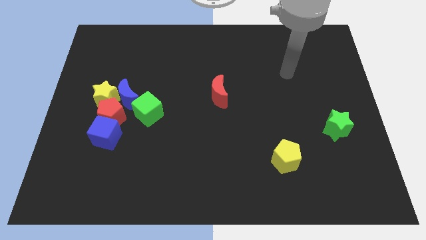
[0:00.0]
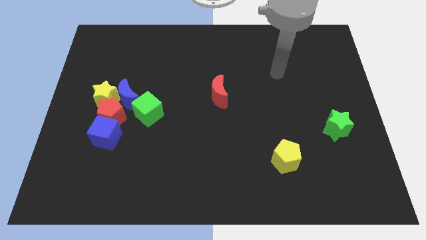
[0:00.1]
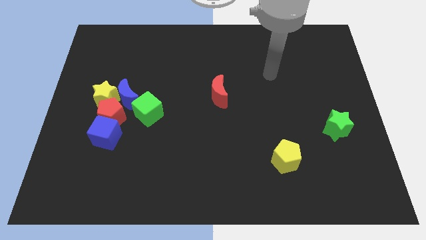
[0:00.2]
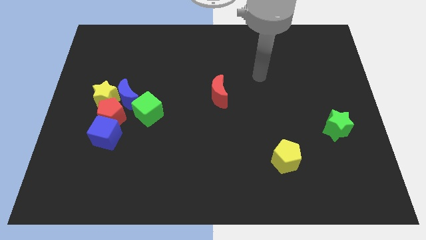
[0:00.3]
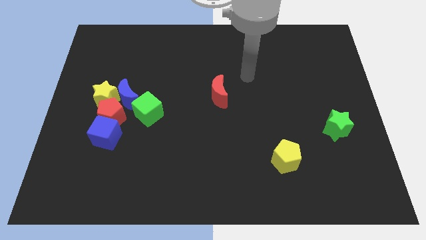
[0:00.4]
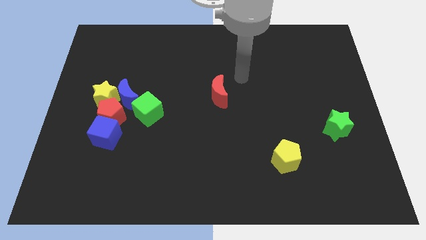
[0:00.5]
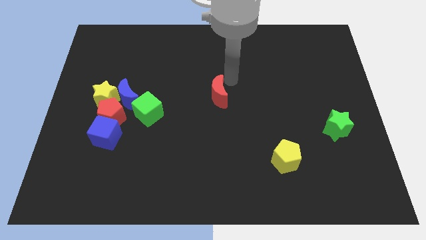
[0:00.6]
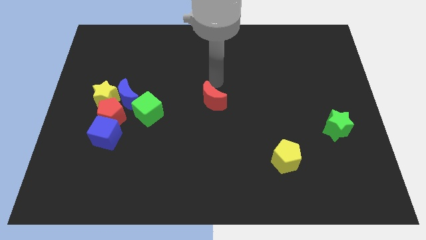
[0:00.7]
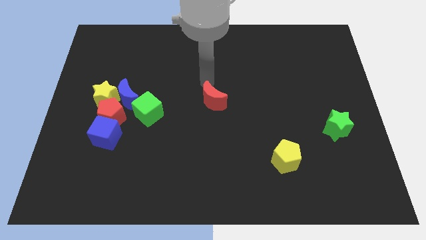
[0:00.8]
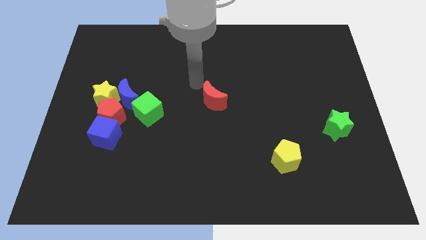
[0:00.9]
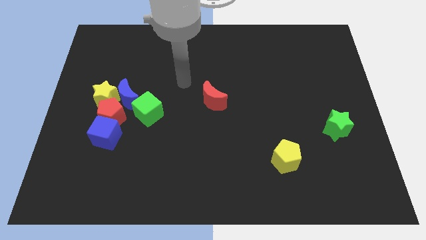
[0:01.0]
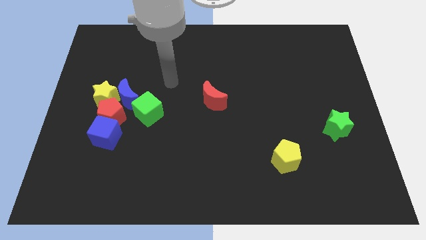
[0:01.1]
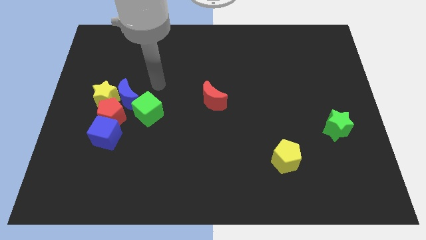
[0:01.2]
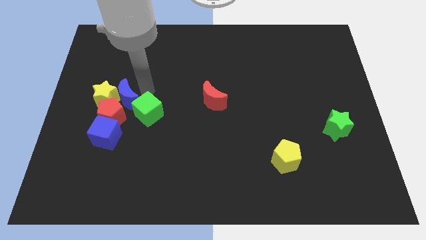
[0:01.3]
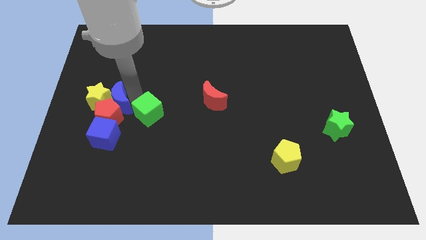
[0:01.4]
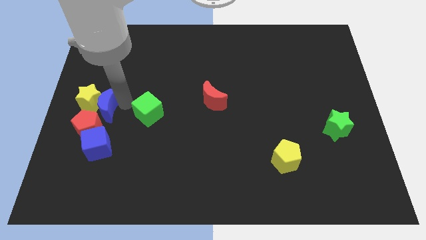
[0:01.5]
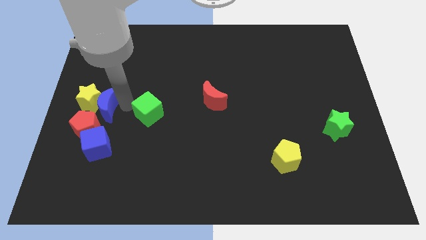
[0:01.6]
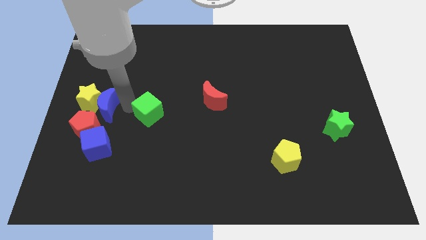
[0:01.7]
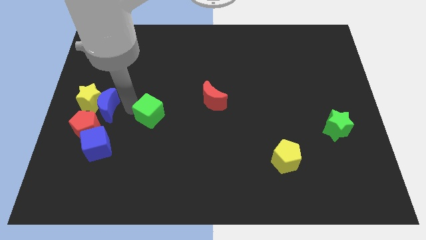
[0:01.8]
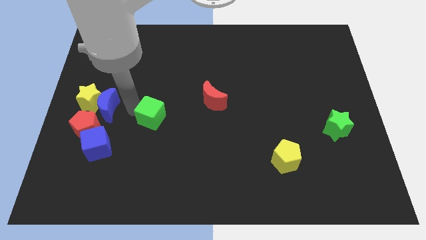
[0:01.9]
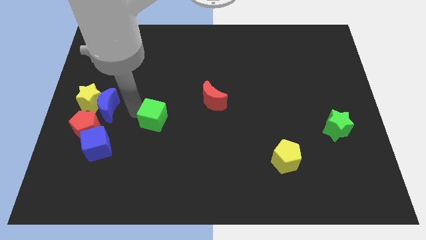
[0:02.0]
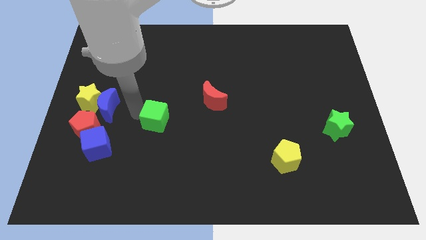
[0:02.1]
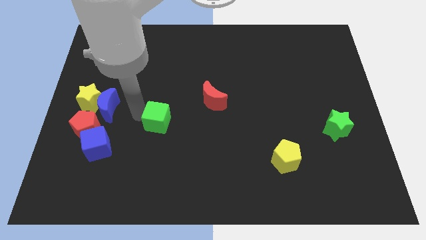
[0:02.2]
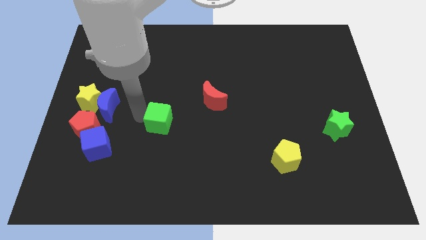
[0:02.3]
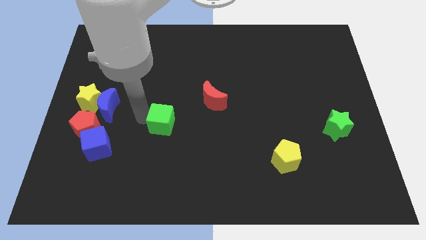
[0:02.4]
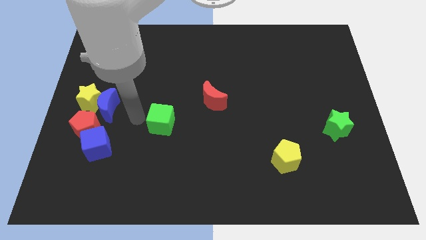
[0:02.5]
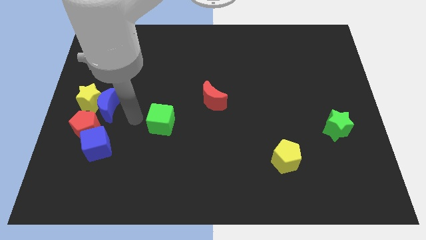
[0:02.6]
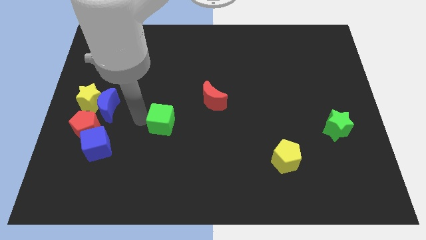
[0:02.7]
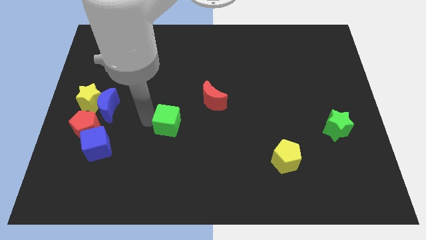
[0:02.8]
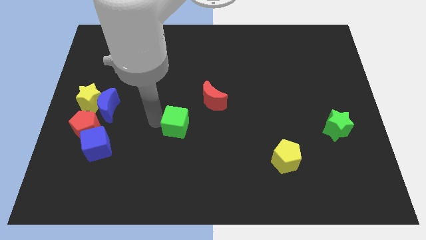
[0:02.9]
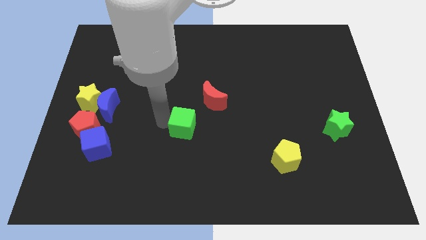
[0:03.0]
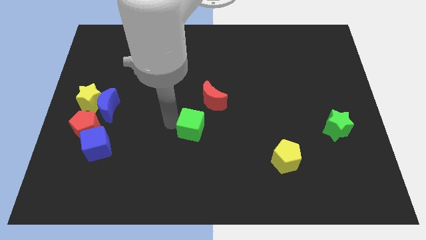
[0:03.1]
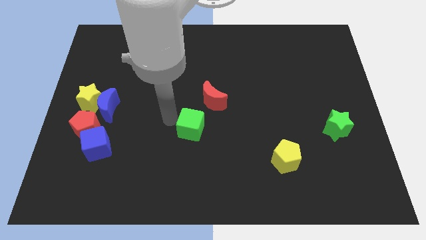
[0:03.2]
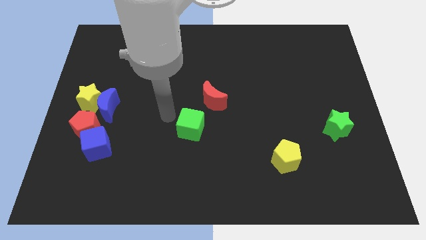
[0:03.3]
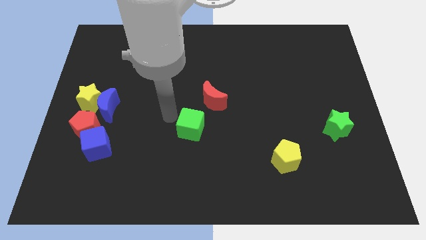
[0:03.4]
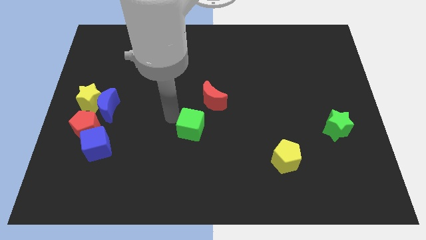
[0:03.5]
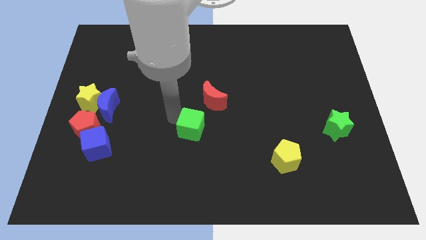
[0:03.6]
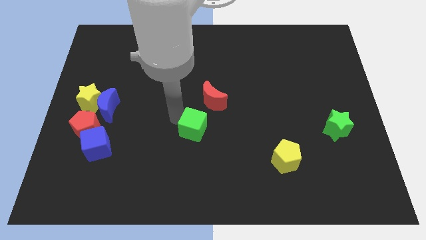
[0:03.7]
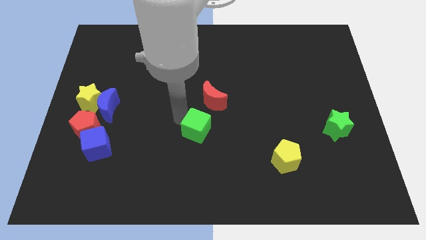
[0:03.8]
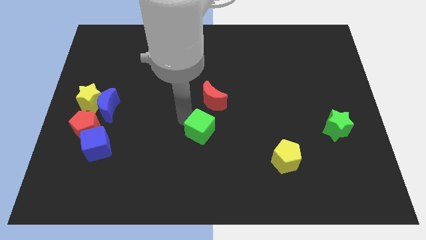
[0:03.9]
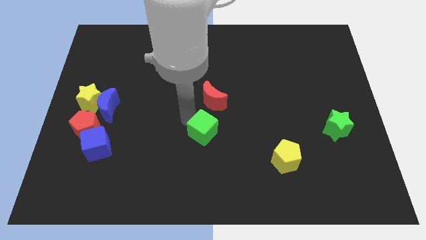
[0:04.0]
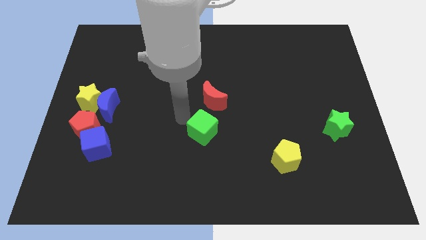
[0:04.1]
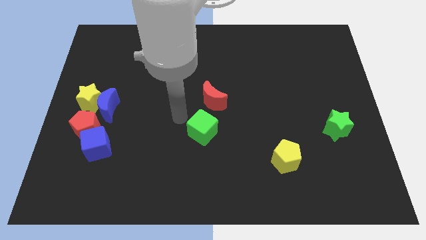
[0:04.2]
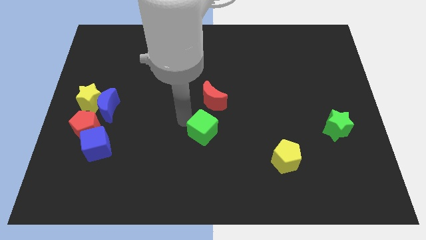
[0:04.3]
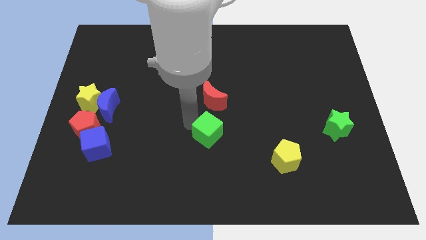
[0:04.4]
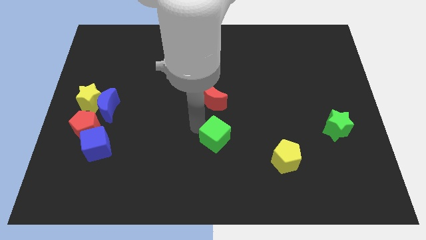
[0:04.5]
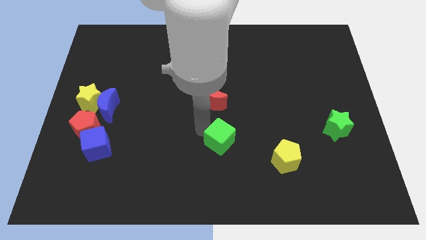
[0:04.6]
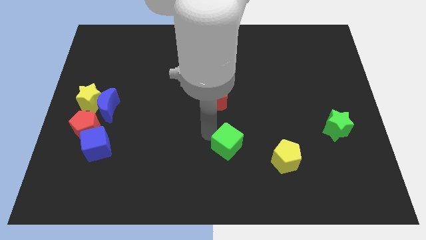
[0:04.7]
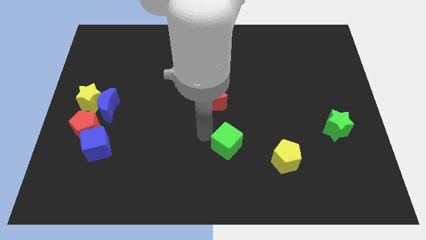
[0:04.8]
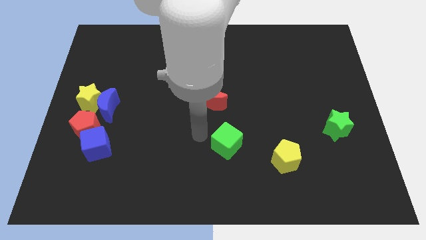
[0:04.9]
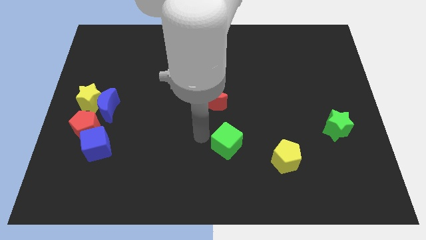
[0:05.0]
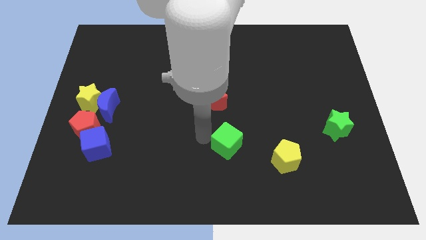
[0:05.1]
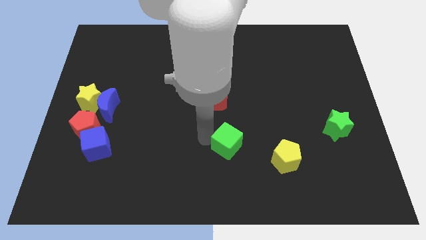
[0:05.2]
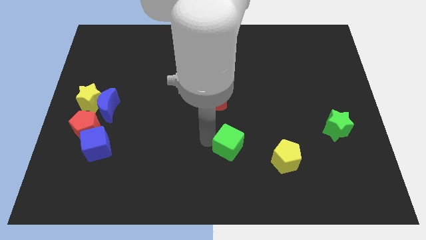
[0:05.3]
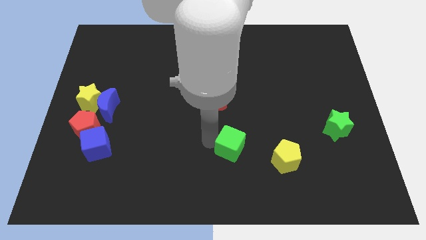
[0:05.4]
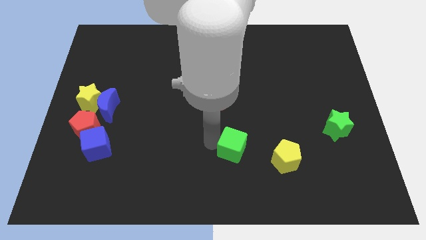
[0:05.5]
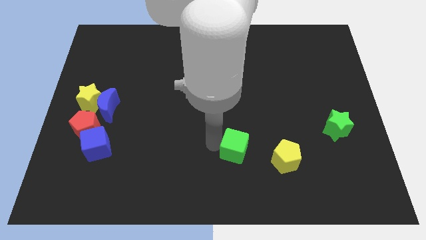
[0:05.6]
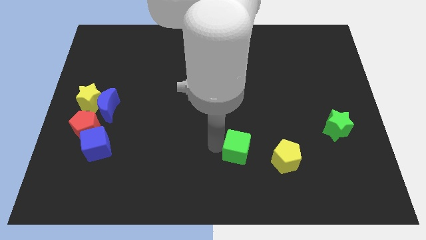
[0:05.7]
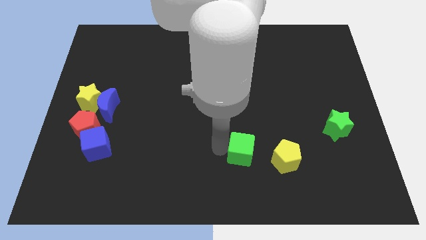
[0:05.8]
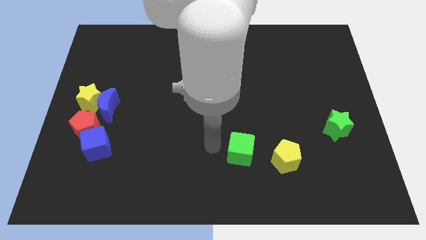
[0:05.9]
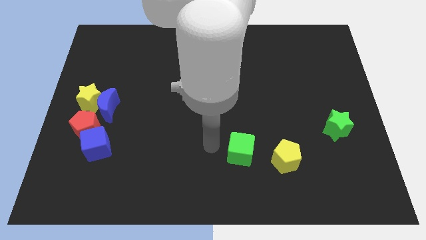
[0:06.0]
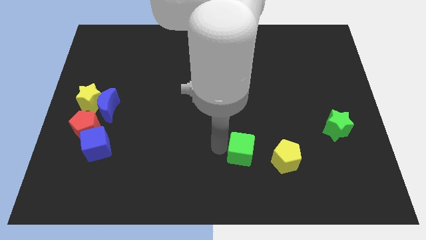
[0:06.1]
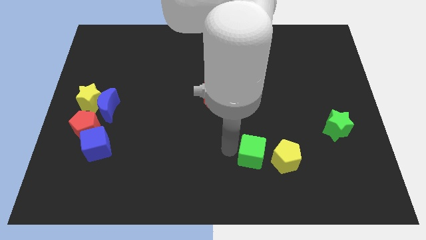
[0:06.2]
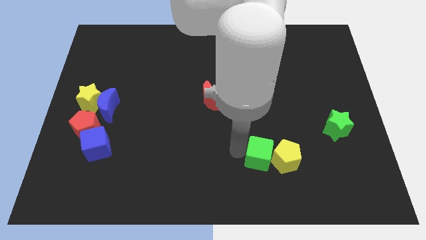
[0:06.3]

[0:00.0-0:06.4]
move the green cube to the yellow pentagon

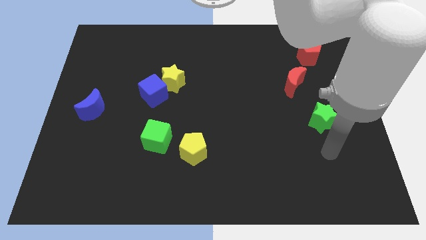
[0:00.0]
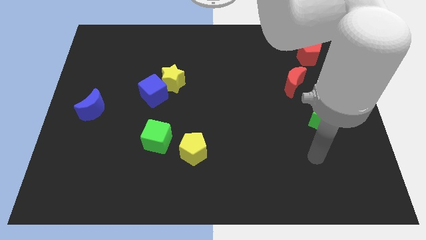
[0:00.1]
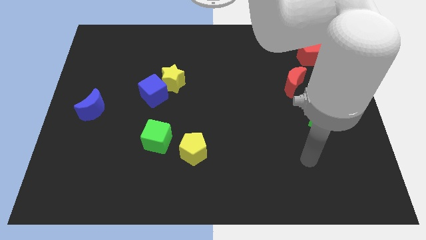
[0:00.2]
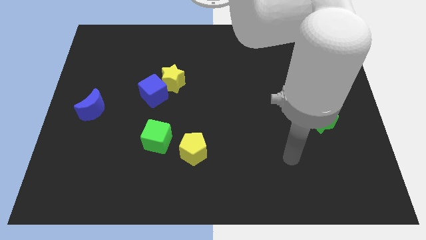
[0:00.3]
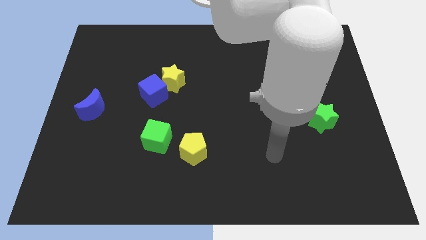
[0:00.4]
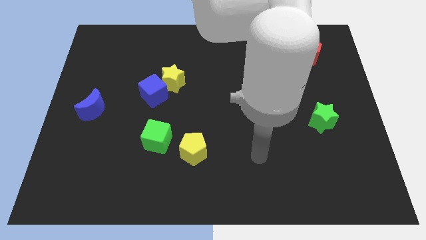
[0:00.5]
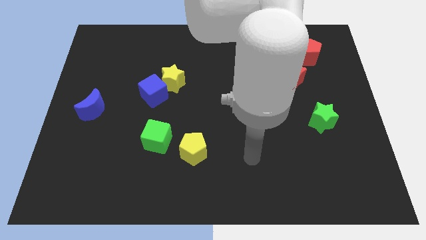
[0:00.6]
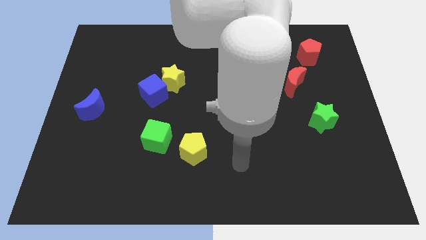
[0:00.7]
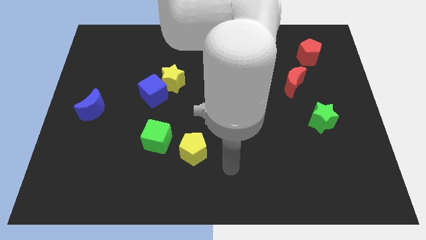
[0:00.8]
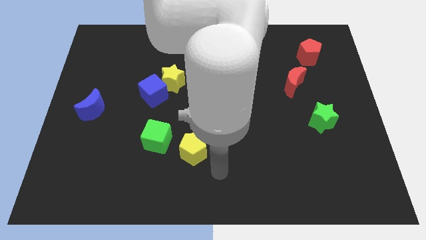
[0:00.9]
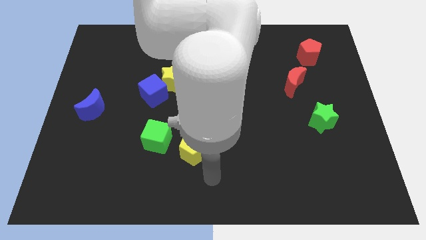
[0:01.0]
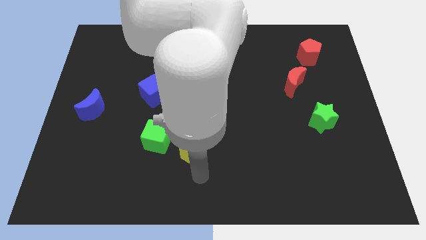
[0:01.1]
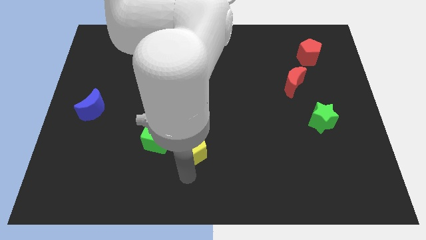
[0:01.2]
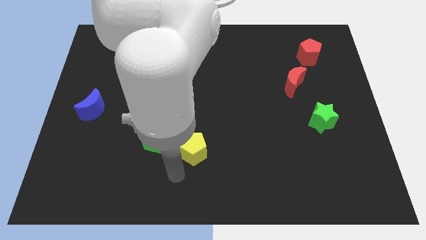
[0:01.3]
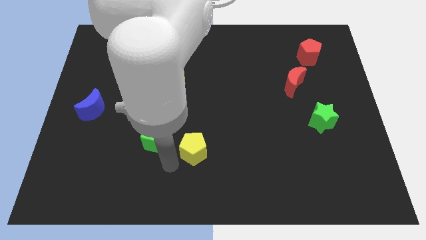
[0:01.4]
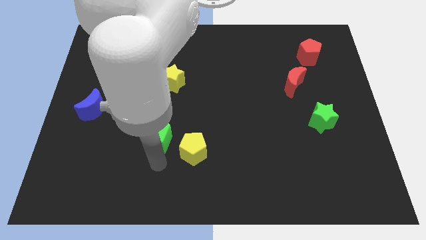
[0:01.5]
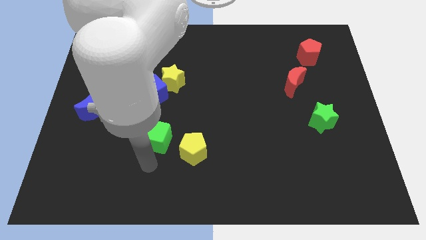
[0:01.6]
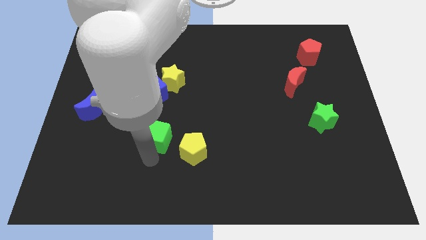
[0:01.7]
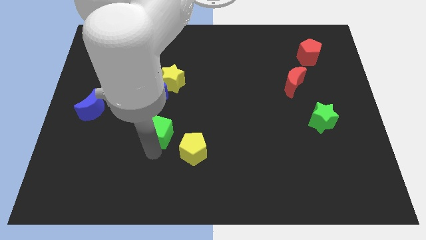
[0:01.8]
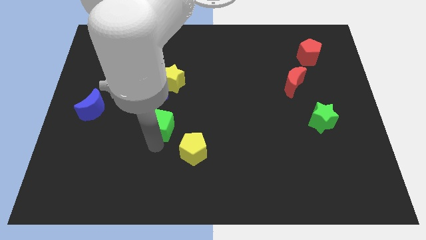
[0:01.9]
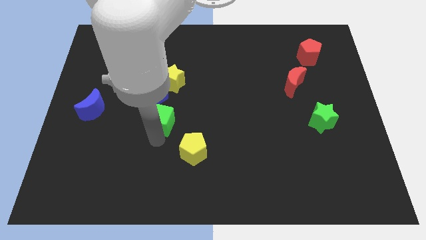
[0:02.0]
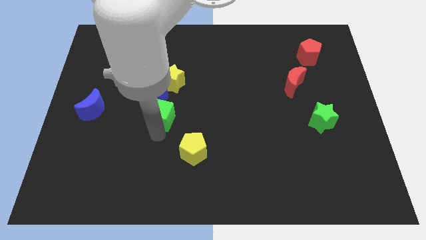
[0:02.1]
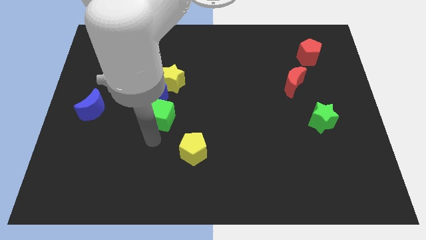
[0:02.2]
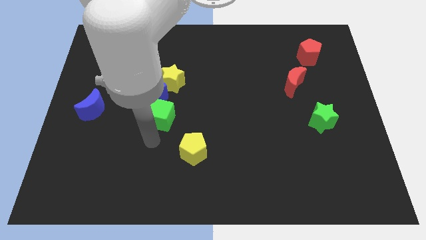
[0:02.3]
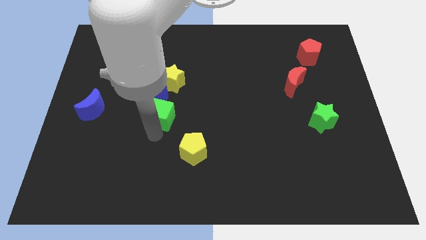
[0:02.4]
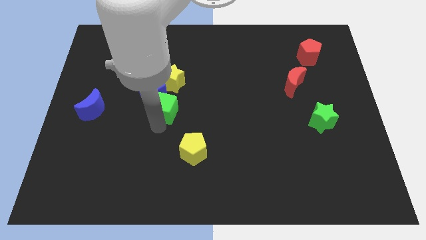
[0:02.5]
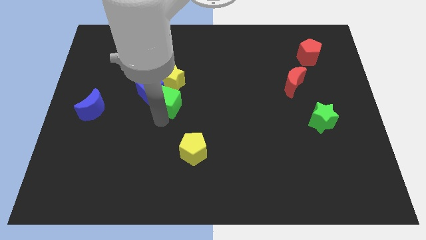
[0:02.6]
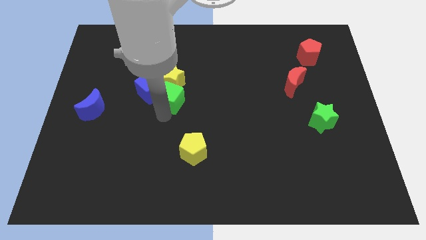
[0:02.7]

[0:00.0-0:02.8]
put the green cube next to the yellow star
